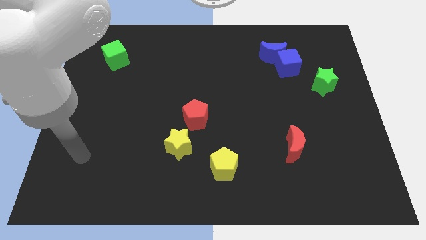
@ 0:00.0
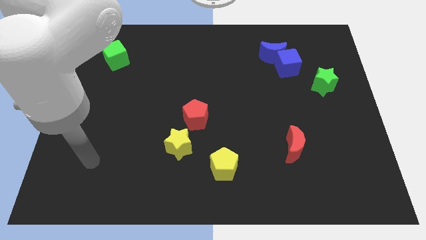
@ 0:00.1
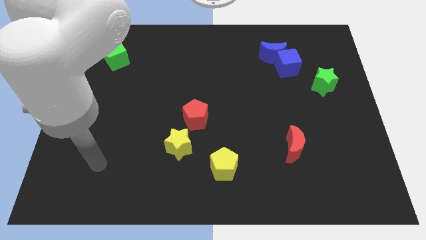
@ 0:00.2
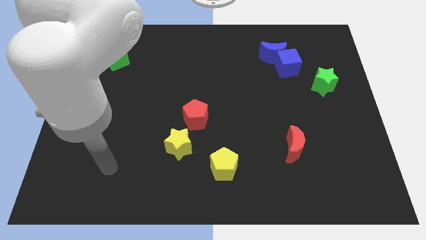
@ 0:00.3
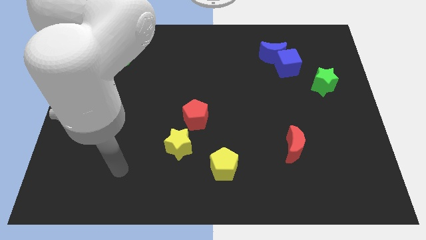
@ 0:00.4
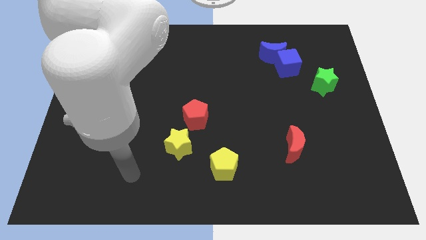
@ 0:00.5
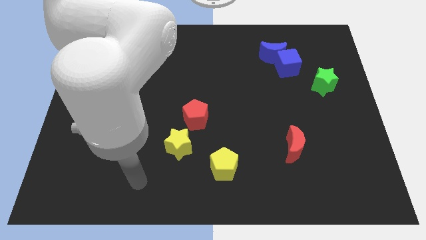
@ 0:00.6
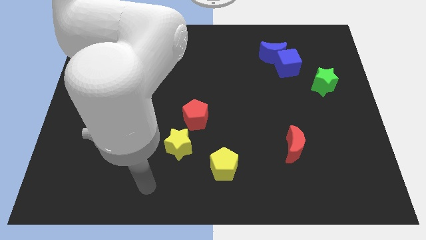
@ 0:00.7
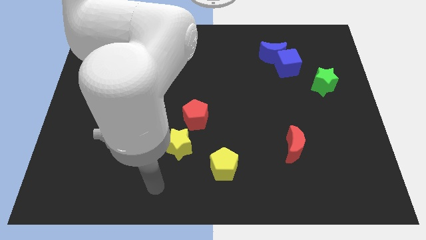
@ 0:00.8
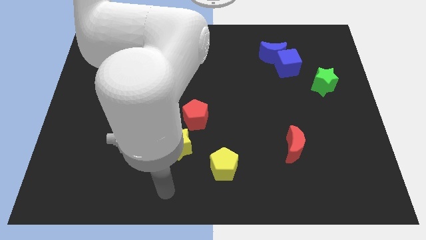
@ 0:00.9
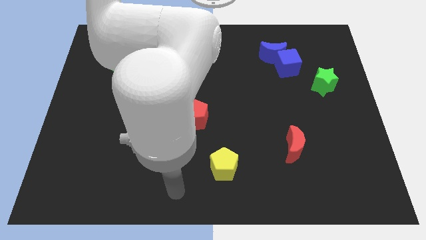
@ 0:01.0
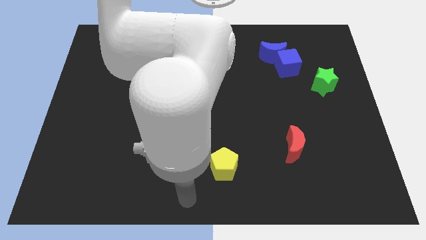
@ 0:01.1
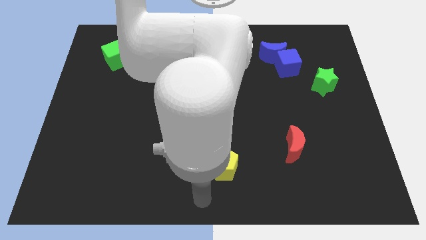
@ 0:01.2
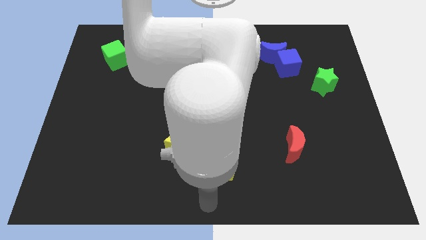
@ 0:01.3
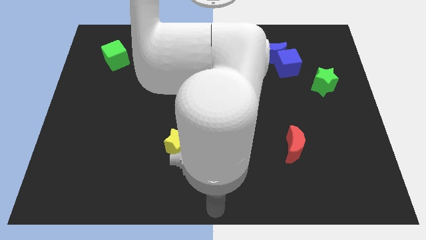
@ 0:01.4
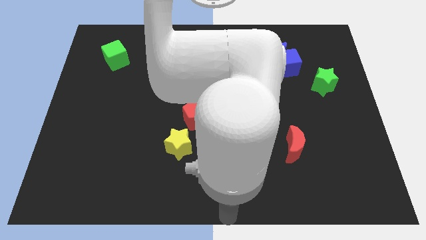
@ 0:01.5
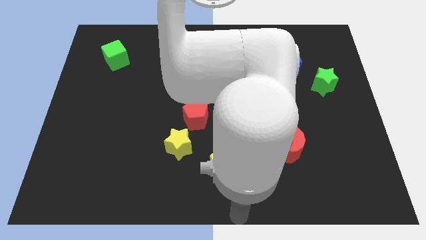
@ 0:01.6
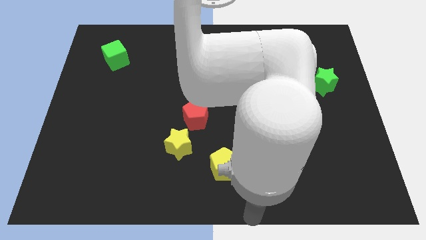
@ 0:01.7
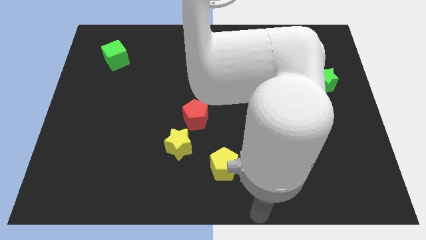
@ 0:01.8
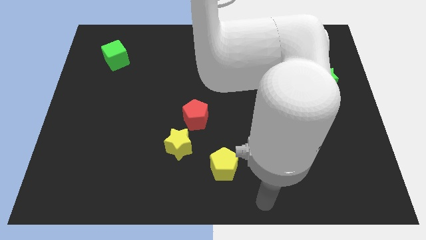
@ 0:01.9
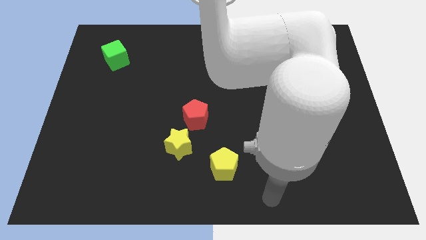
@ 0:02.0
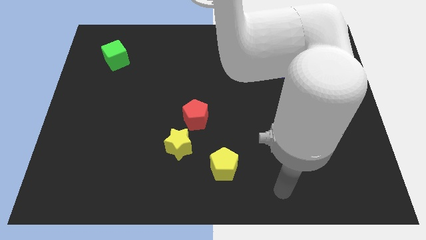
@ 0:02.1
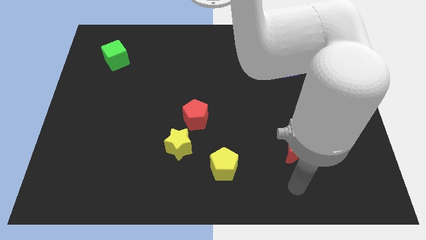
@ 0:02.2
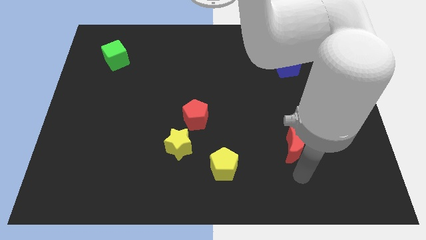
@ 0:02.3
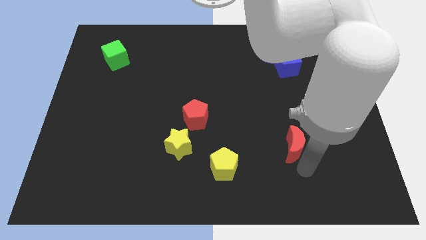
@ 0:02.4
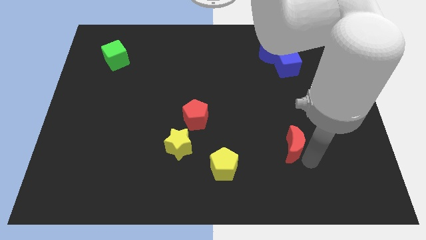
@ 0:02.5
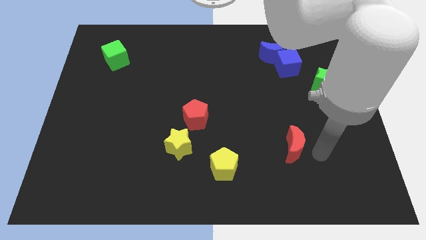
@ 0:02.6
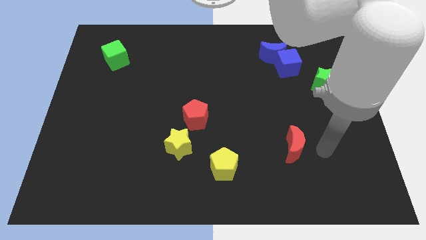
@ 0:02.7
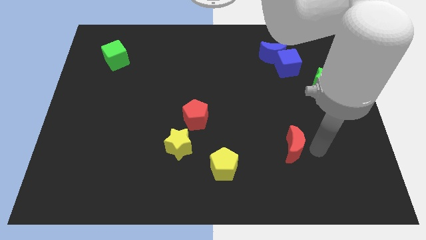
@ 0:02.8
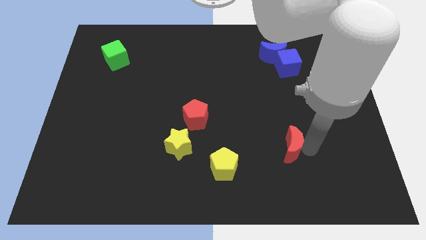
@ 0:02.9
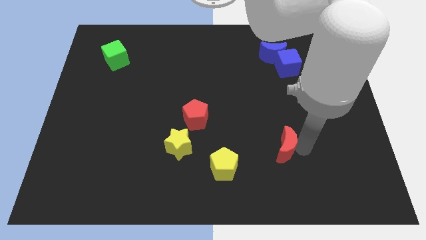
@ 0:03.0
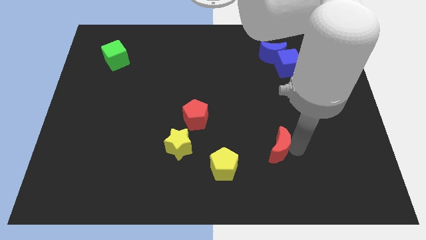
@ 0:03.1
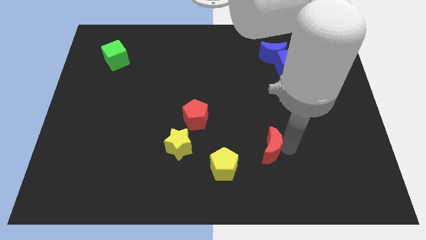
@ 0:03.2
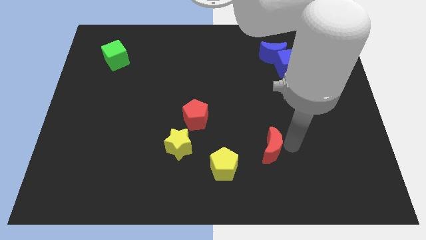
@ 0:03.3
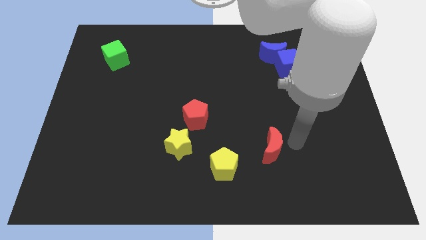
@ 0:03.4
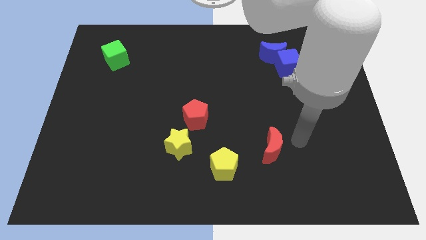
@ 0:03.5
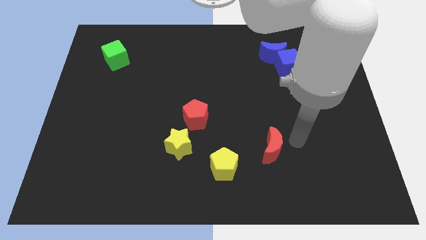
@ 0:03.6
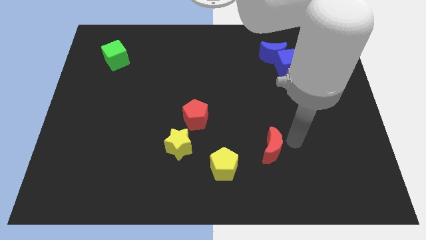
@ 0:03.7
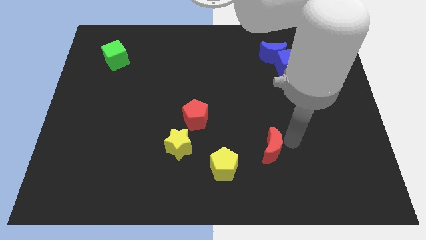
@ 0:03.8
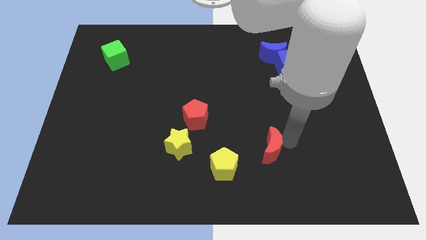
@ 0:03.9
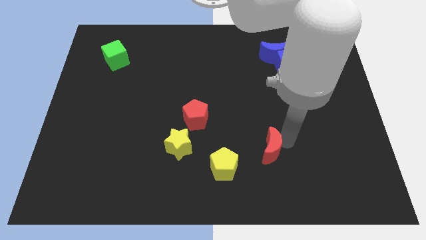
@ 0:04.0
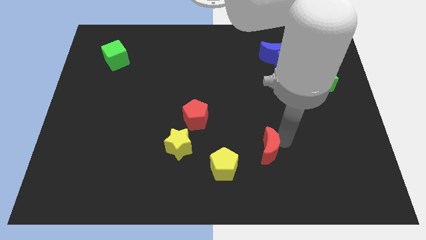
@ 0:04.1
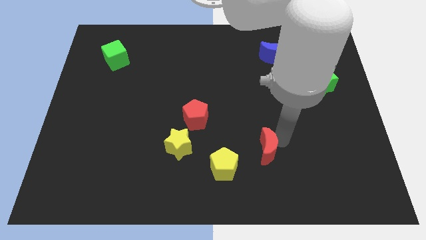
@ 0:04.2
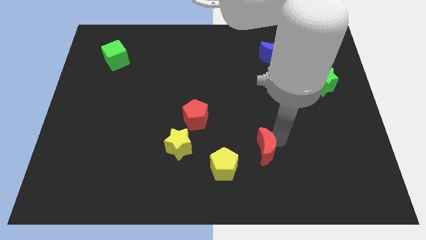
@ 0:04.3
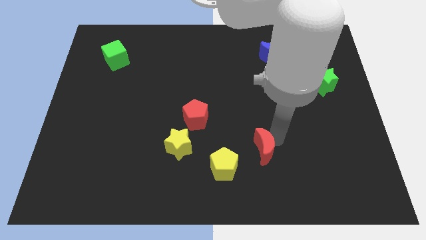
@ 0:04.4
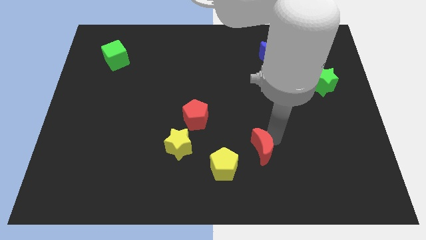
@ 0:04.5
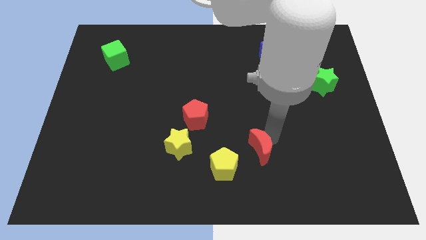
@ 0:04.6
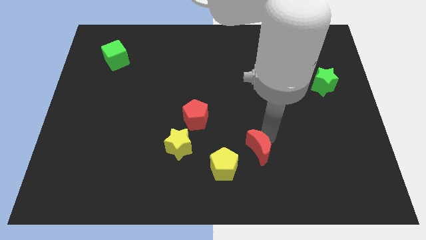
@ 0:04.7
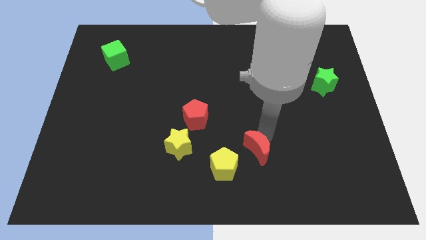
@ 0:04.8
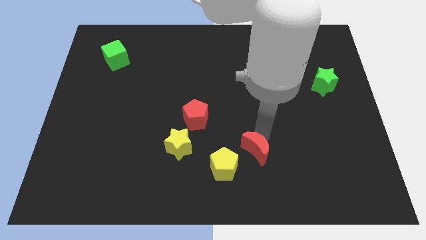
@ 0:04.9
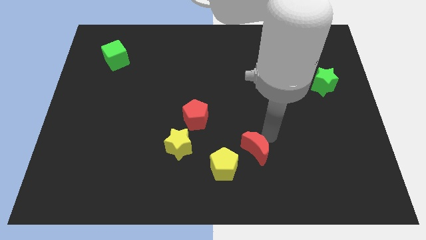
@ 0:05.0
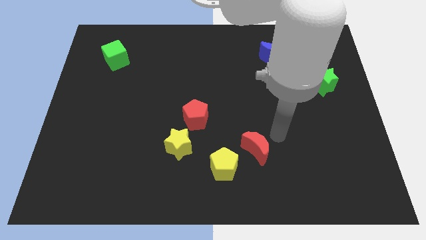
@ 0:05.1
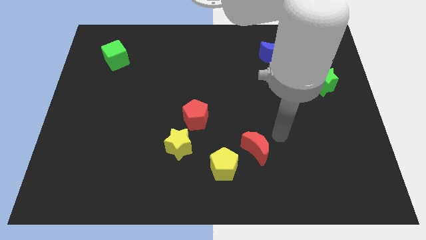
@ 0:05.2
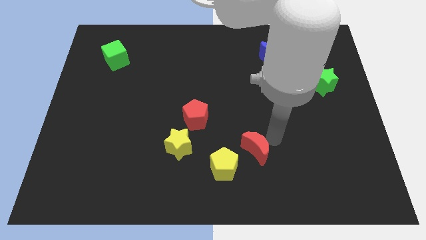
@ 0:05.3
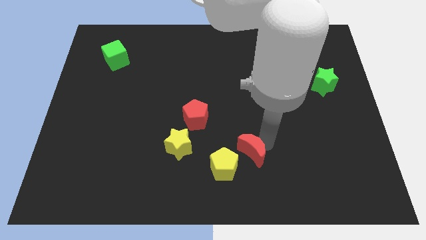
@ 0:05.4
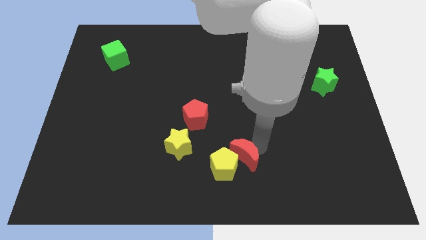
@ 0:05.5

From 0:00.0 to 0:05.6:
put the red moon towards the yellow pentagon

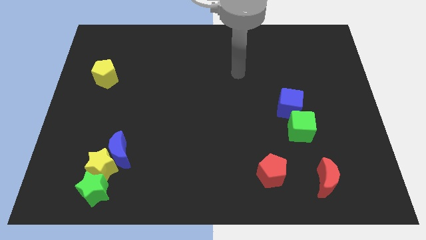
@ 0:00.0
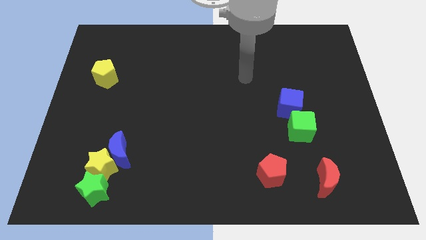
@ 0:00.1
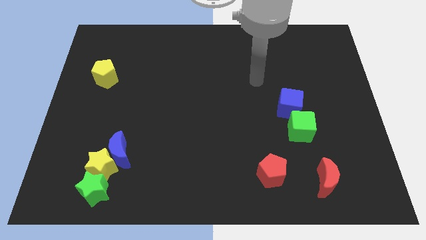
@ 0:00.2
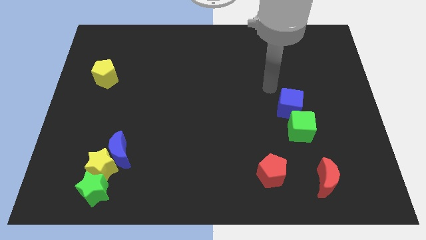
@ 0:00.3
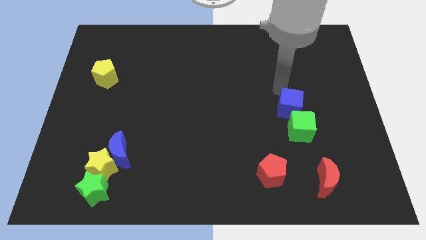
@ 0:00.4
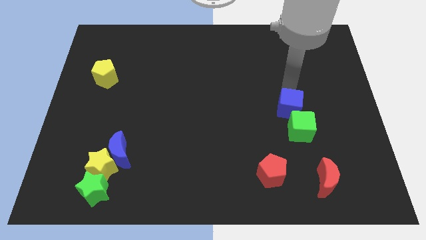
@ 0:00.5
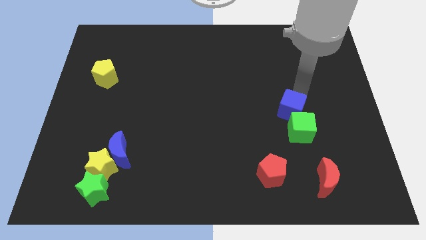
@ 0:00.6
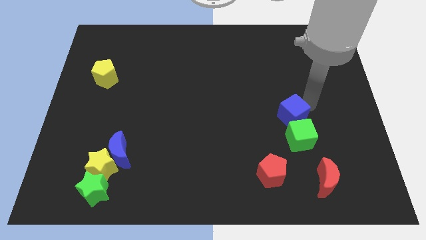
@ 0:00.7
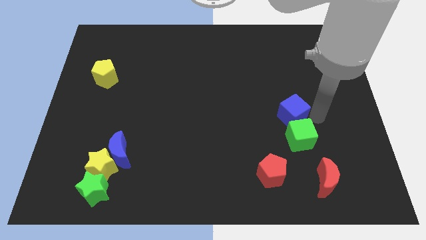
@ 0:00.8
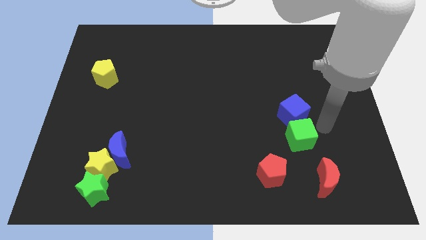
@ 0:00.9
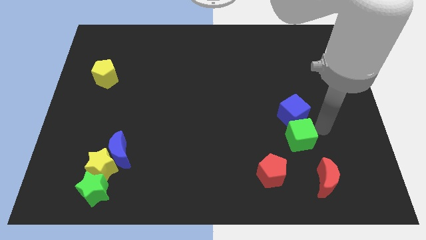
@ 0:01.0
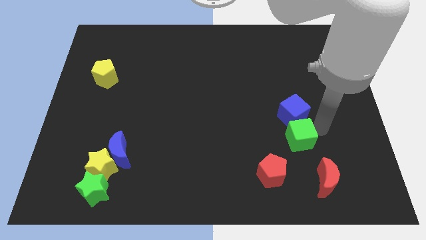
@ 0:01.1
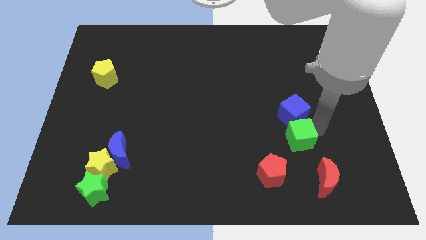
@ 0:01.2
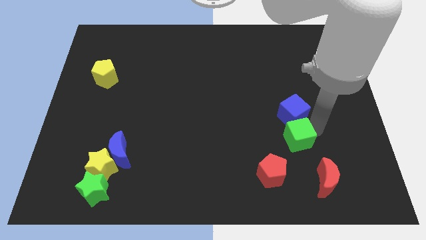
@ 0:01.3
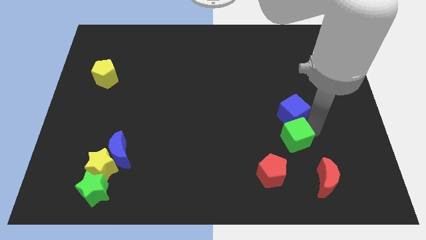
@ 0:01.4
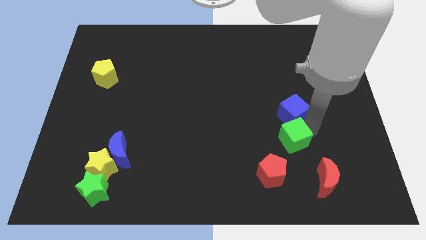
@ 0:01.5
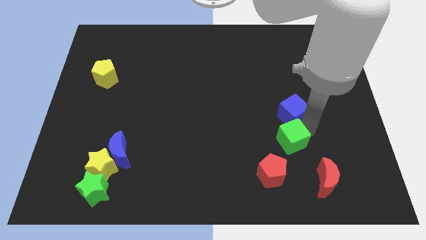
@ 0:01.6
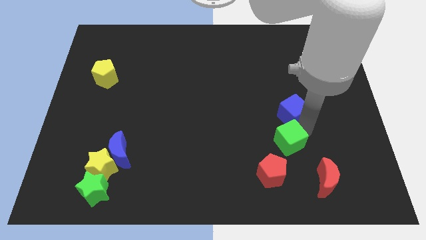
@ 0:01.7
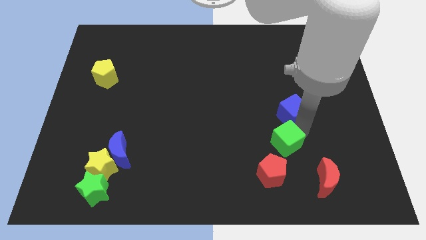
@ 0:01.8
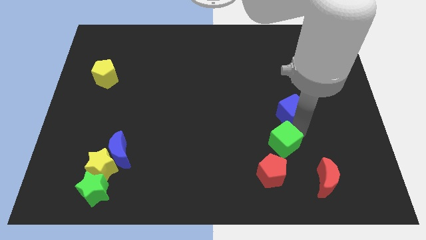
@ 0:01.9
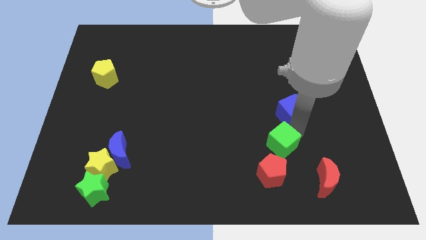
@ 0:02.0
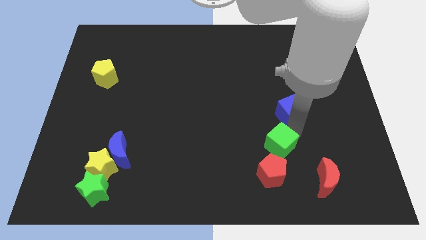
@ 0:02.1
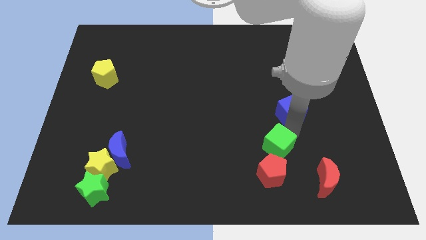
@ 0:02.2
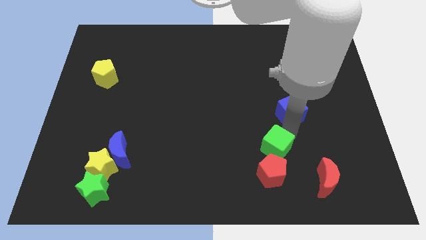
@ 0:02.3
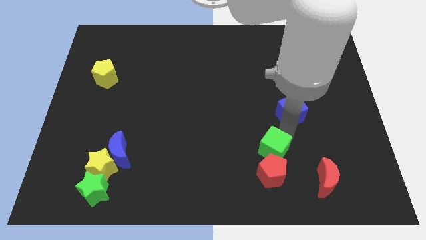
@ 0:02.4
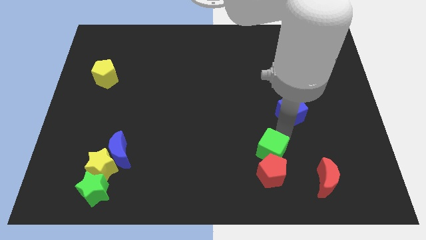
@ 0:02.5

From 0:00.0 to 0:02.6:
move the green cube close to the red pentagon
